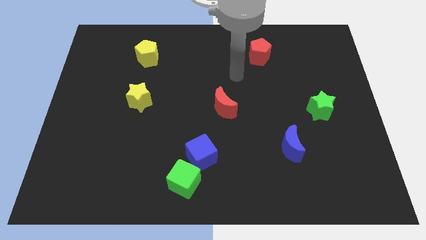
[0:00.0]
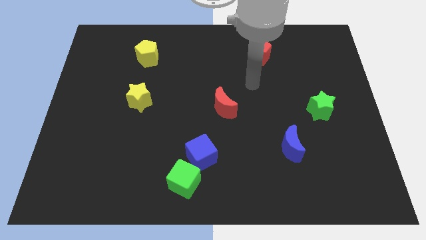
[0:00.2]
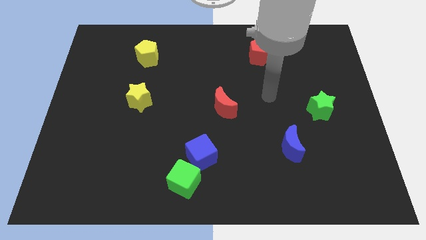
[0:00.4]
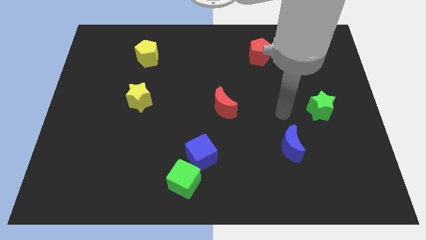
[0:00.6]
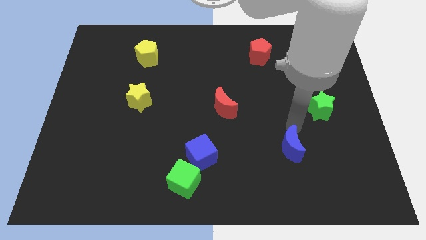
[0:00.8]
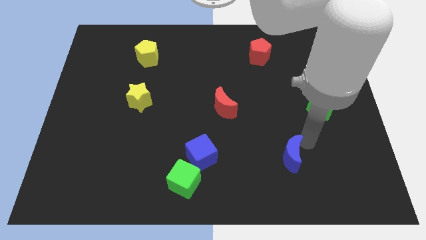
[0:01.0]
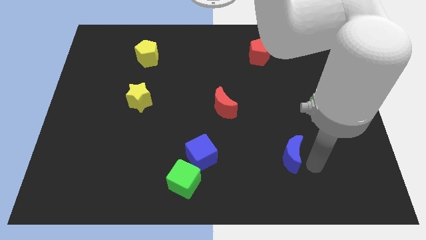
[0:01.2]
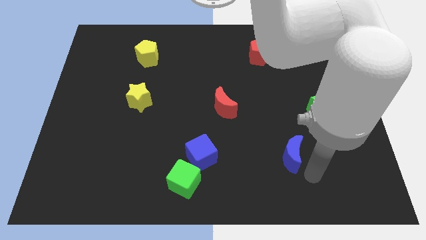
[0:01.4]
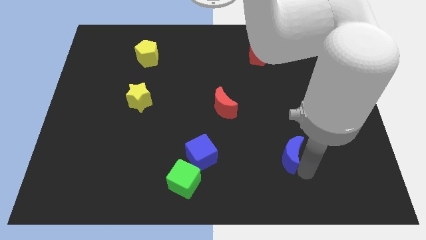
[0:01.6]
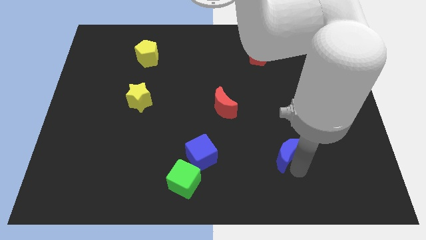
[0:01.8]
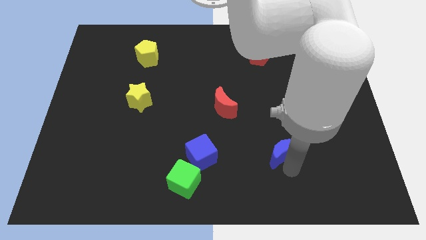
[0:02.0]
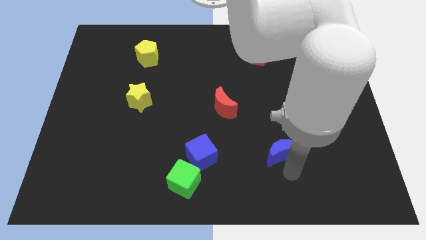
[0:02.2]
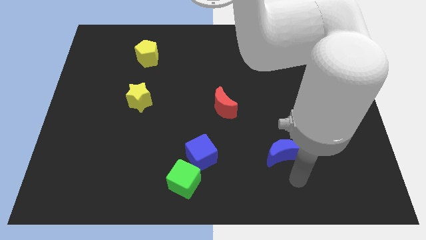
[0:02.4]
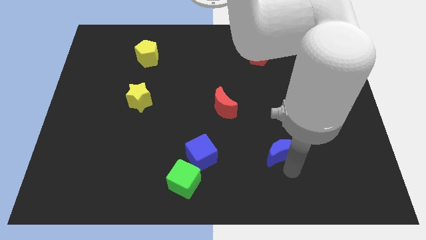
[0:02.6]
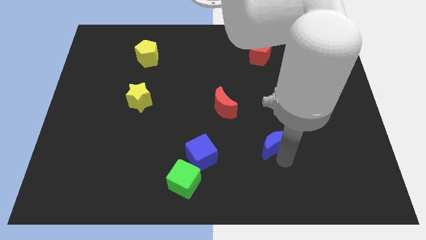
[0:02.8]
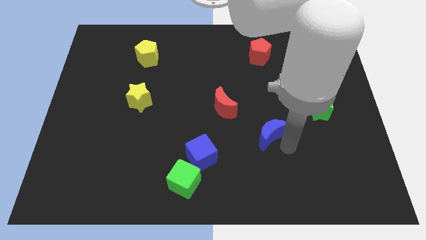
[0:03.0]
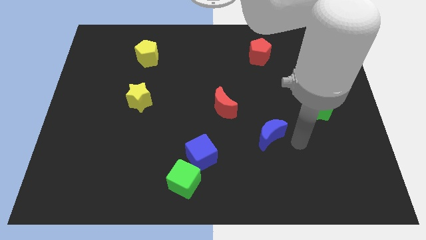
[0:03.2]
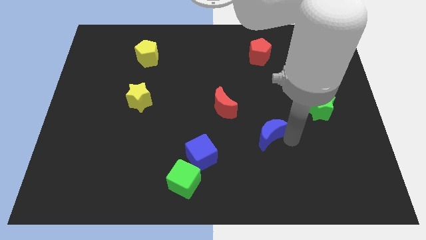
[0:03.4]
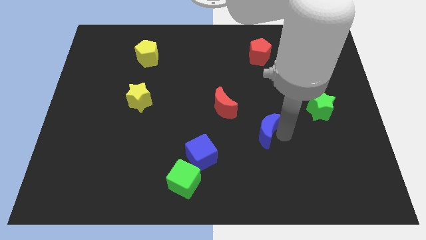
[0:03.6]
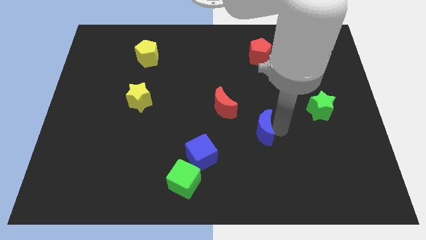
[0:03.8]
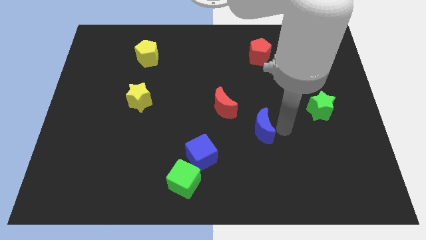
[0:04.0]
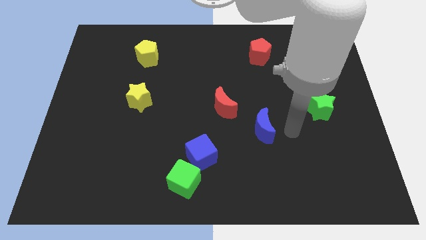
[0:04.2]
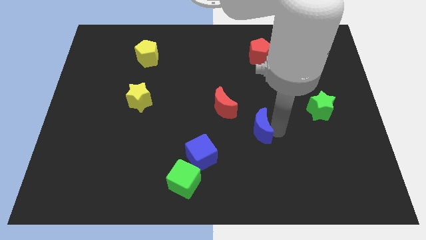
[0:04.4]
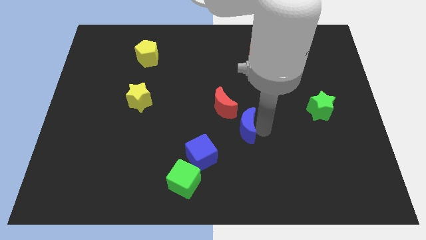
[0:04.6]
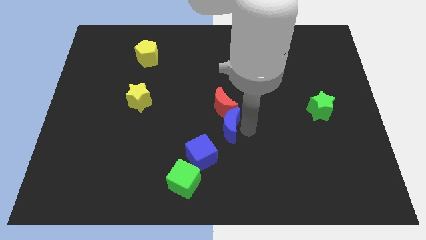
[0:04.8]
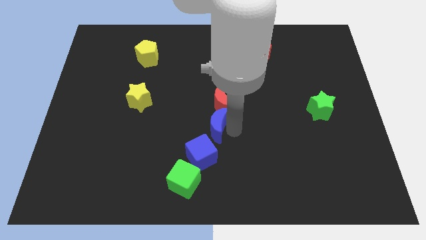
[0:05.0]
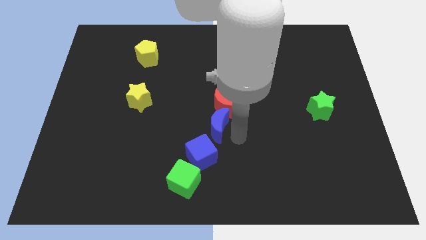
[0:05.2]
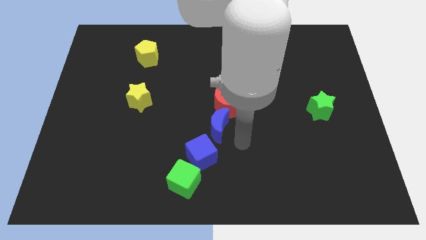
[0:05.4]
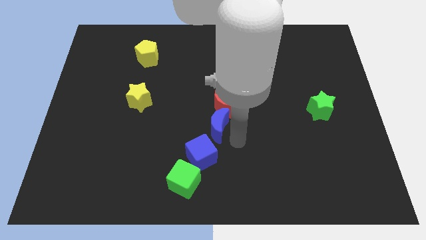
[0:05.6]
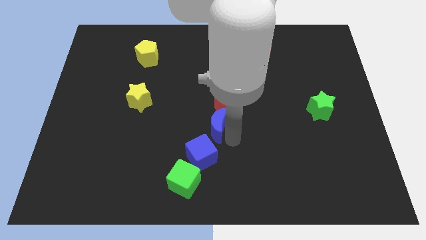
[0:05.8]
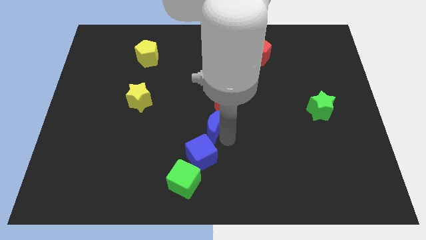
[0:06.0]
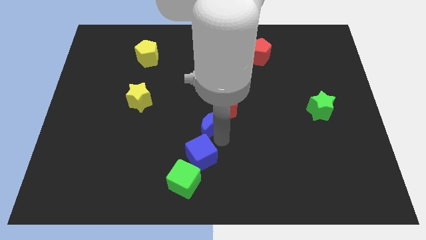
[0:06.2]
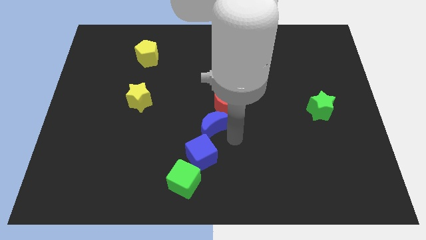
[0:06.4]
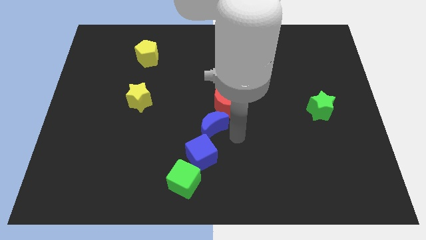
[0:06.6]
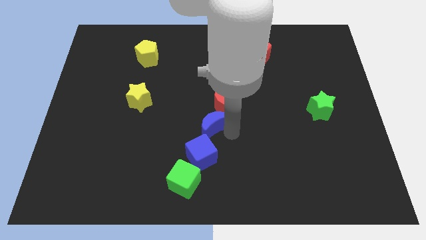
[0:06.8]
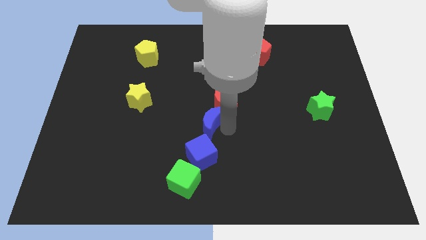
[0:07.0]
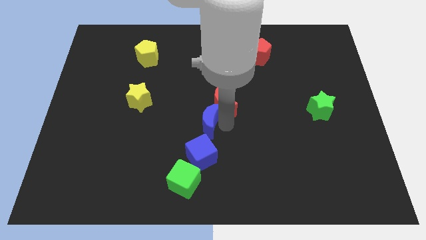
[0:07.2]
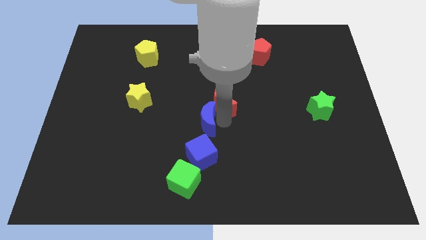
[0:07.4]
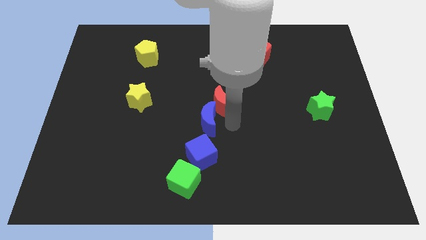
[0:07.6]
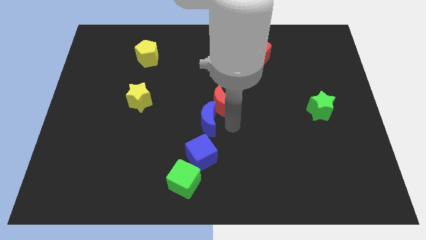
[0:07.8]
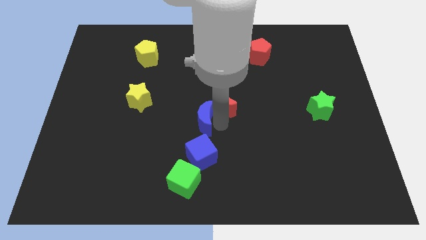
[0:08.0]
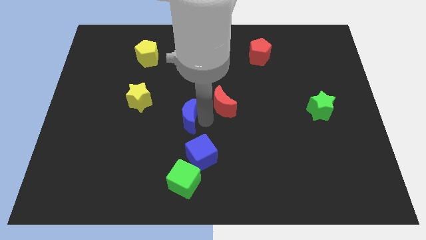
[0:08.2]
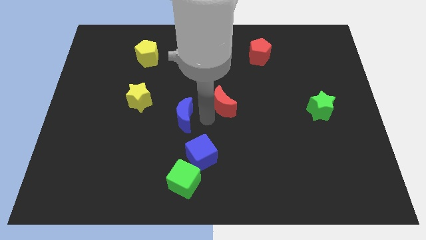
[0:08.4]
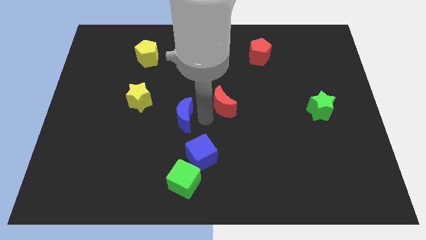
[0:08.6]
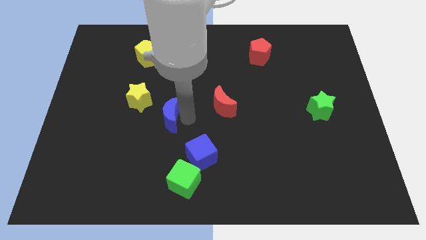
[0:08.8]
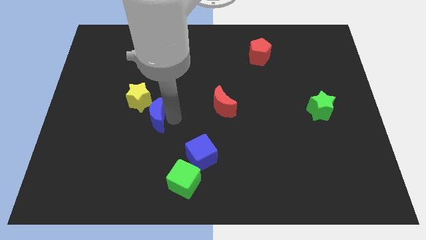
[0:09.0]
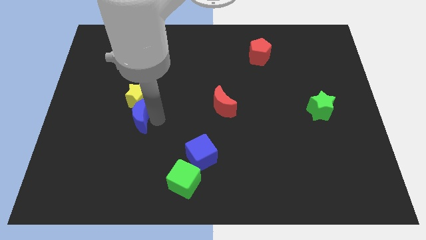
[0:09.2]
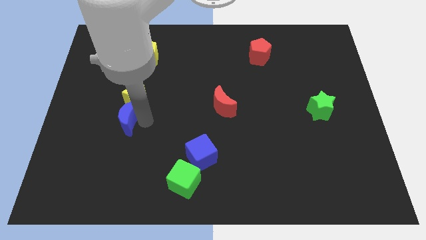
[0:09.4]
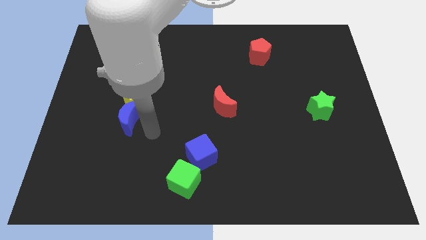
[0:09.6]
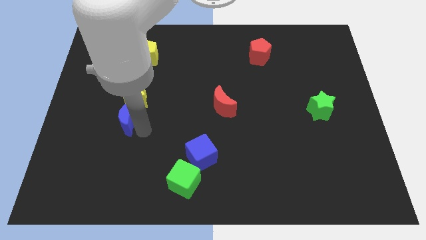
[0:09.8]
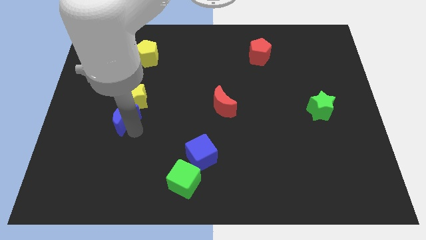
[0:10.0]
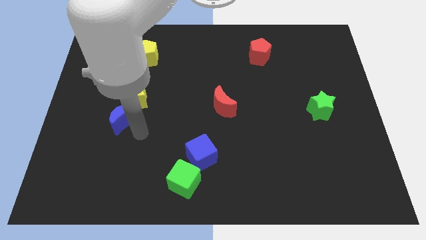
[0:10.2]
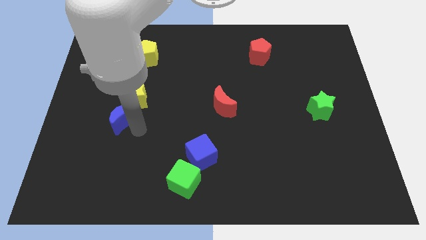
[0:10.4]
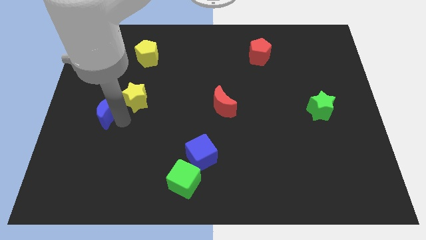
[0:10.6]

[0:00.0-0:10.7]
push the blue moon just left of the yellow star

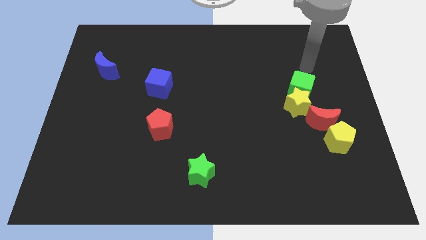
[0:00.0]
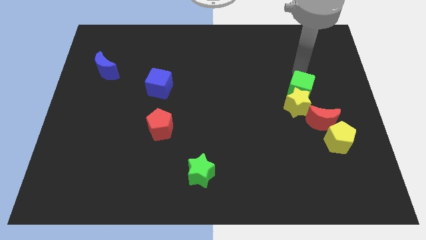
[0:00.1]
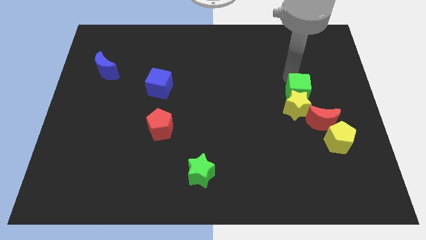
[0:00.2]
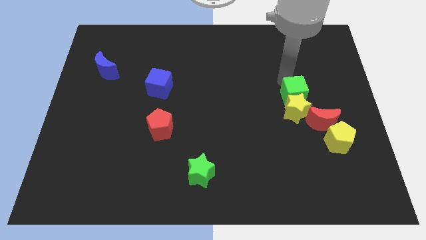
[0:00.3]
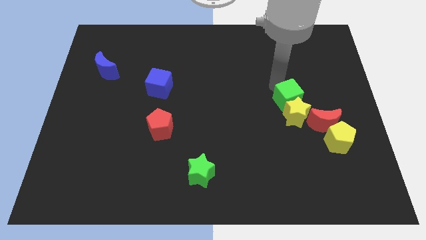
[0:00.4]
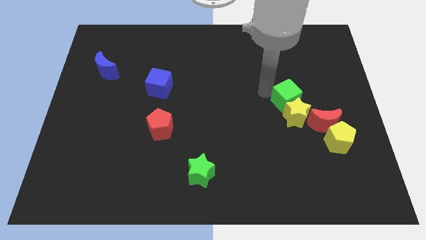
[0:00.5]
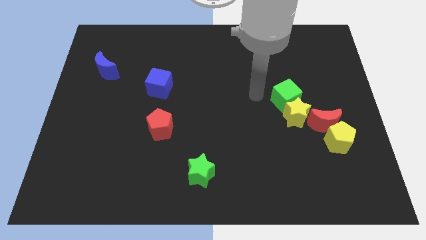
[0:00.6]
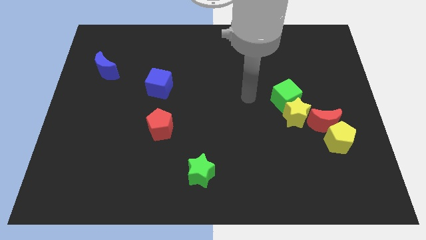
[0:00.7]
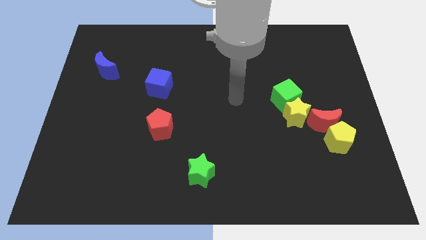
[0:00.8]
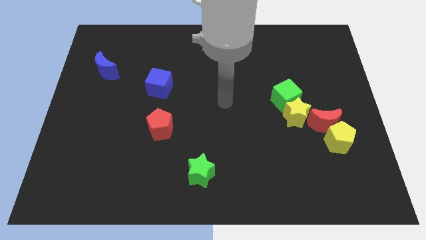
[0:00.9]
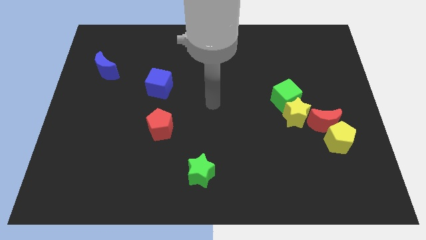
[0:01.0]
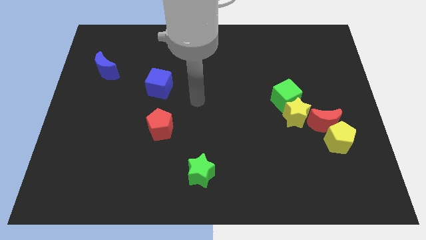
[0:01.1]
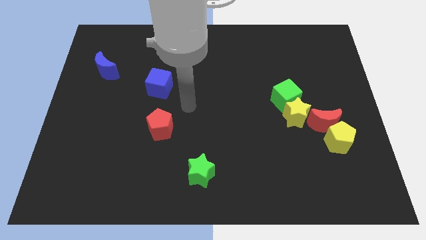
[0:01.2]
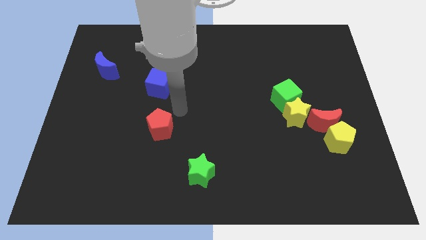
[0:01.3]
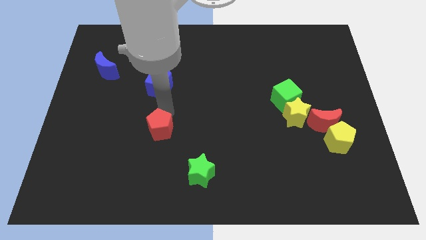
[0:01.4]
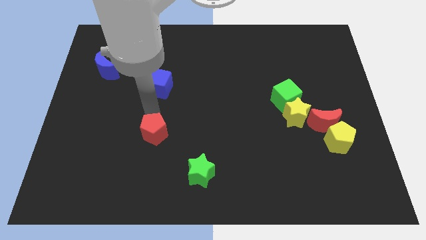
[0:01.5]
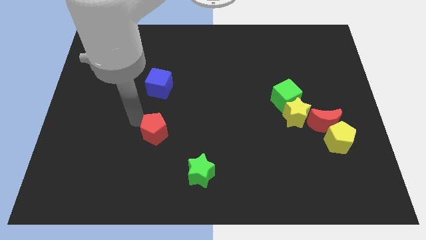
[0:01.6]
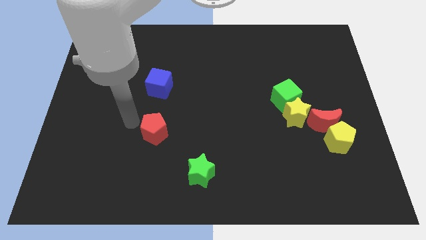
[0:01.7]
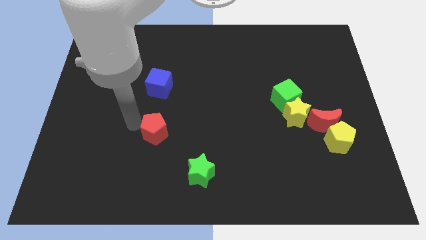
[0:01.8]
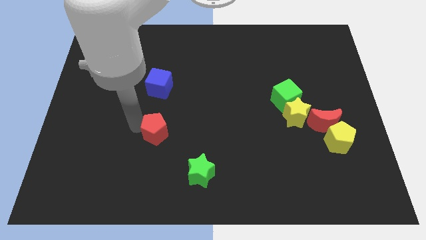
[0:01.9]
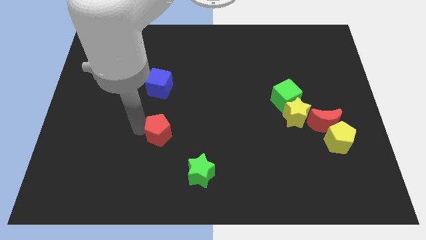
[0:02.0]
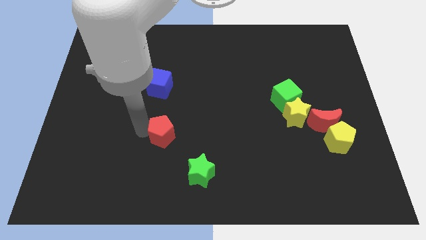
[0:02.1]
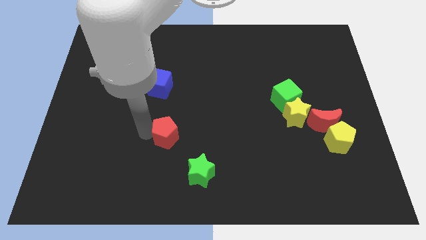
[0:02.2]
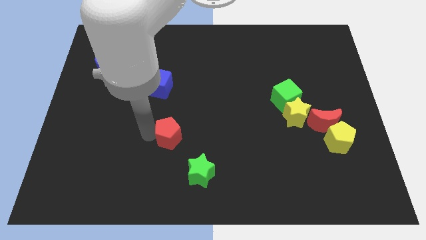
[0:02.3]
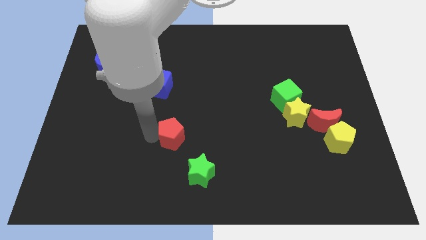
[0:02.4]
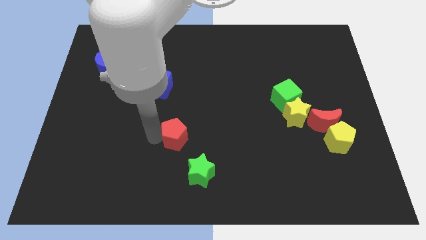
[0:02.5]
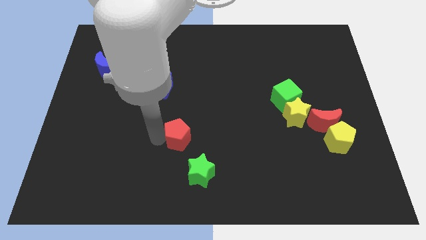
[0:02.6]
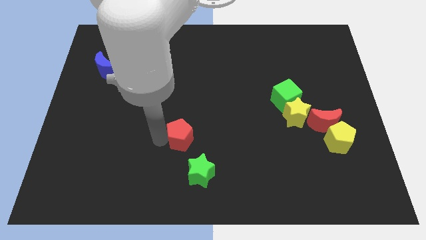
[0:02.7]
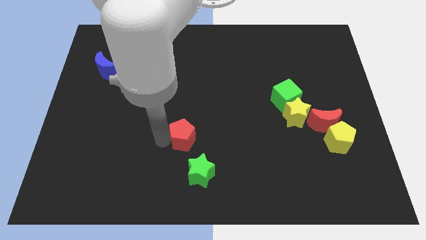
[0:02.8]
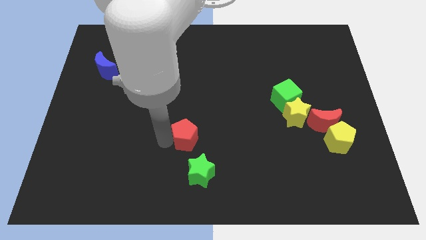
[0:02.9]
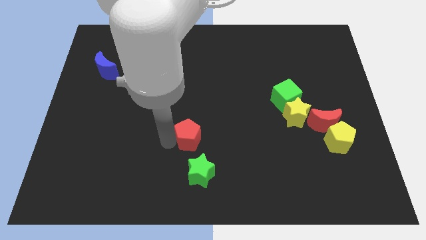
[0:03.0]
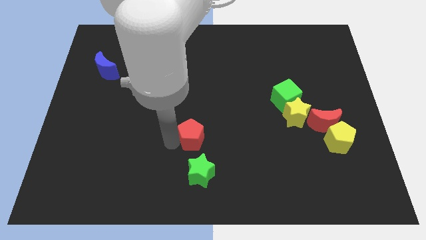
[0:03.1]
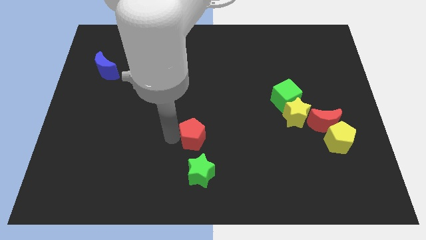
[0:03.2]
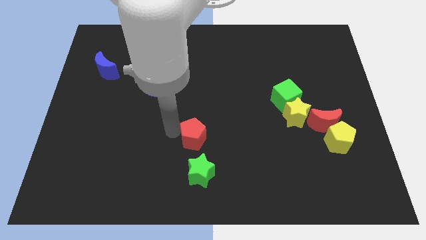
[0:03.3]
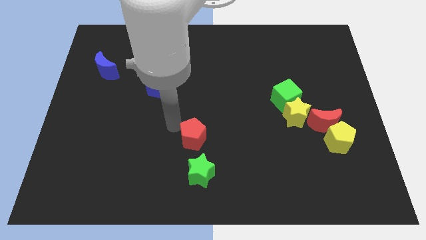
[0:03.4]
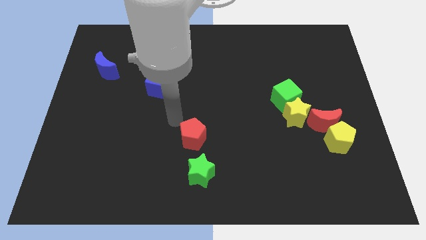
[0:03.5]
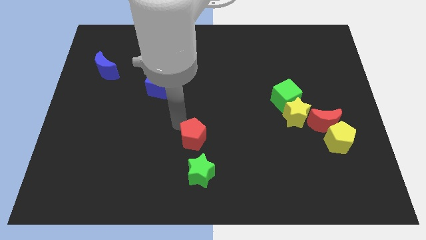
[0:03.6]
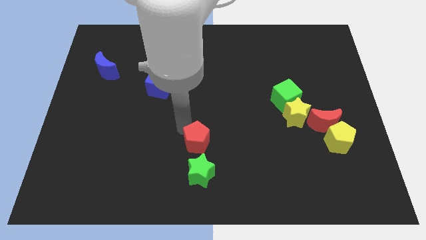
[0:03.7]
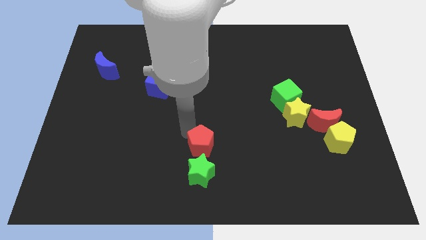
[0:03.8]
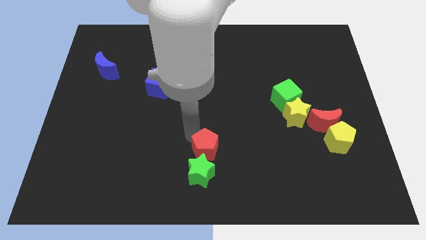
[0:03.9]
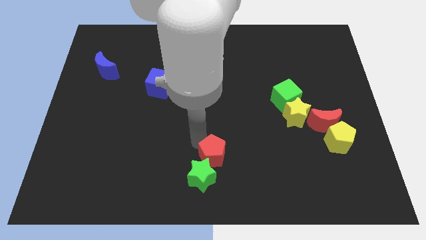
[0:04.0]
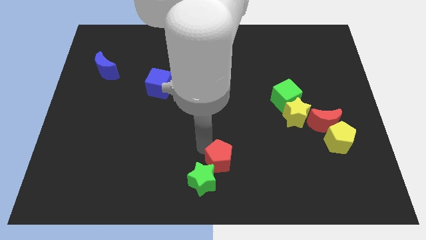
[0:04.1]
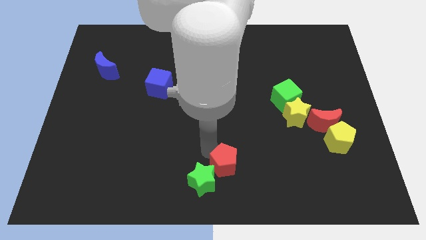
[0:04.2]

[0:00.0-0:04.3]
move the red pentagon just right of the green star
